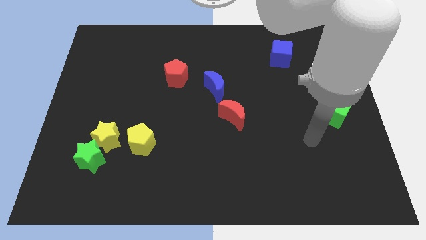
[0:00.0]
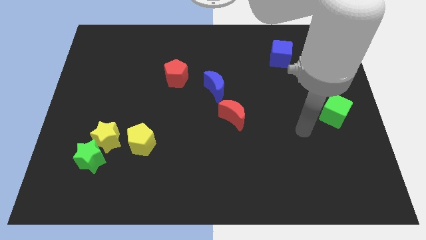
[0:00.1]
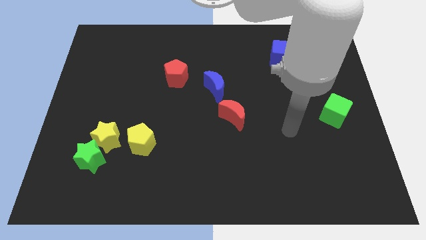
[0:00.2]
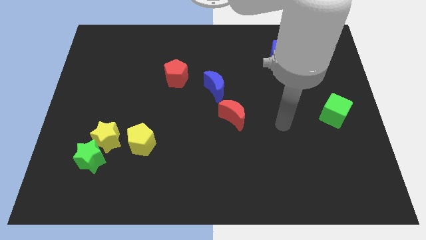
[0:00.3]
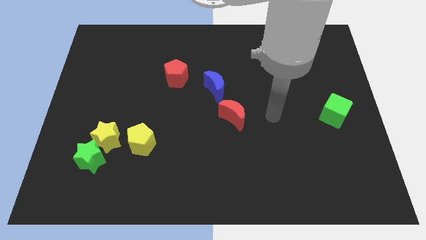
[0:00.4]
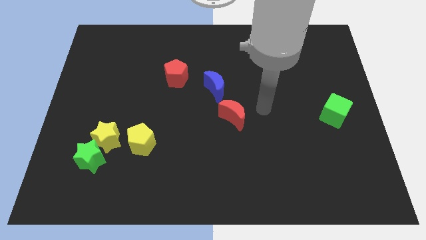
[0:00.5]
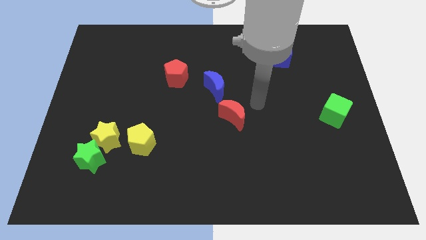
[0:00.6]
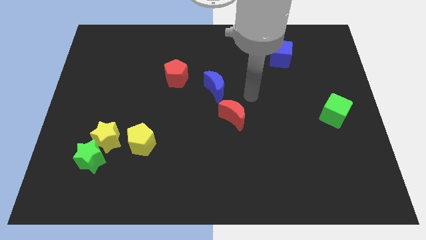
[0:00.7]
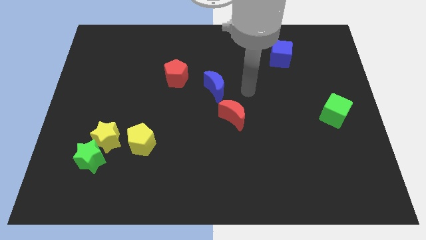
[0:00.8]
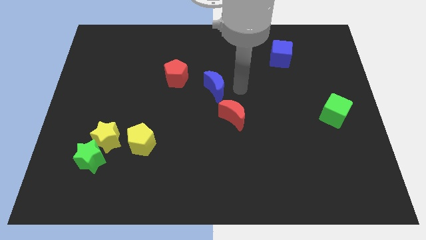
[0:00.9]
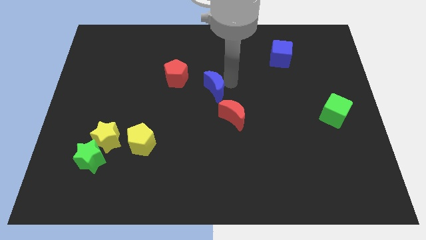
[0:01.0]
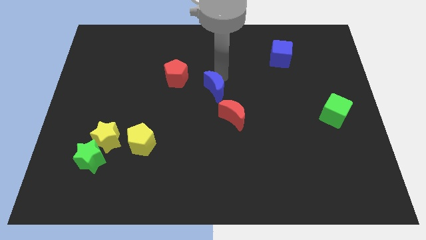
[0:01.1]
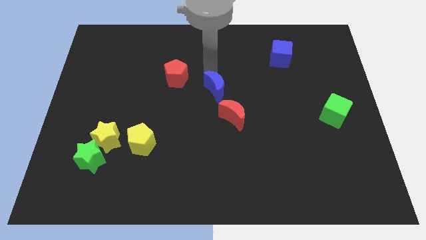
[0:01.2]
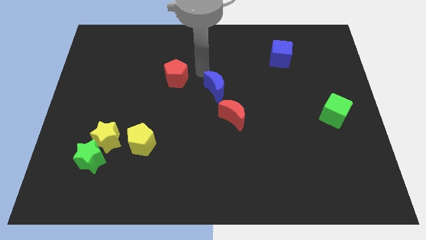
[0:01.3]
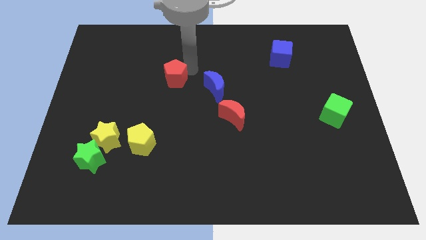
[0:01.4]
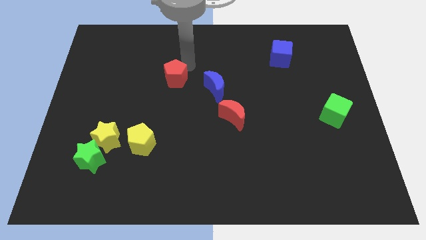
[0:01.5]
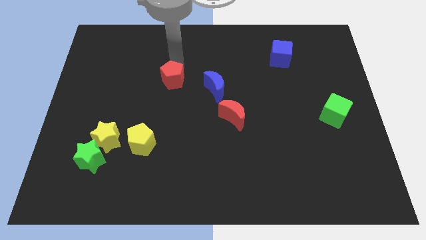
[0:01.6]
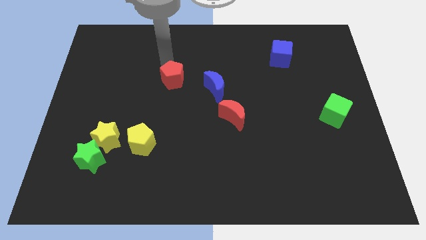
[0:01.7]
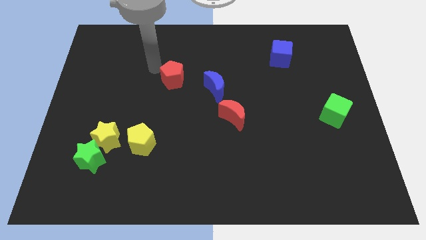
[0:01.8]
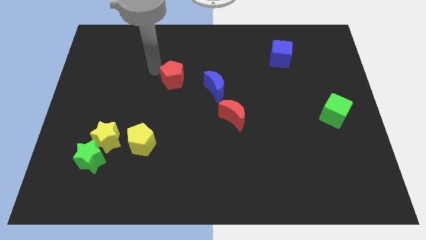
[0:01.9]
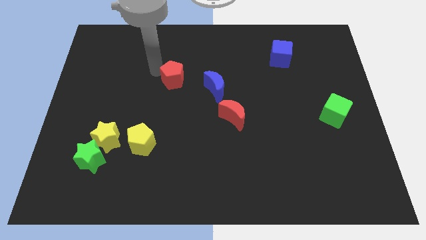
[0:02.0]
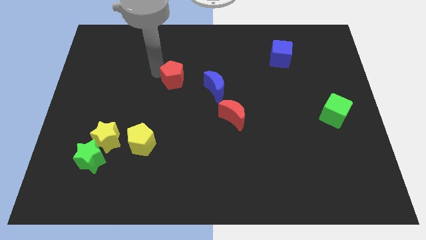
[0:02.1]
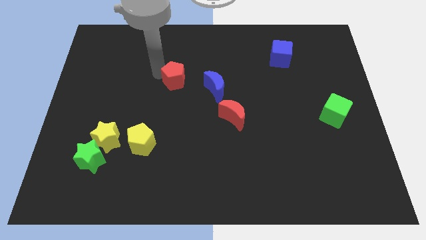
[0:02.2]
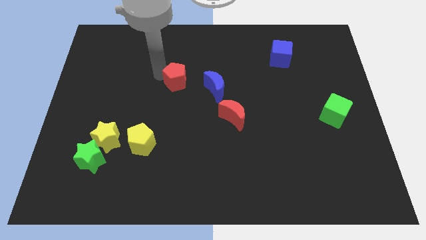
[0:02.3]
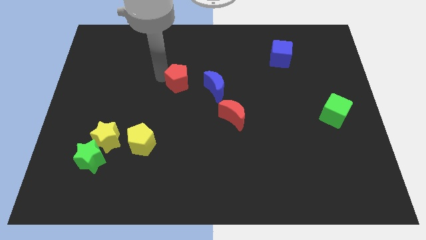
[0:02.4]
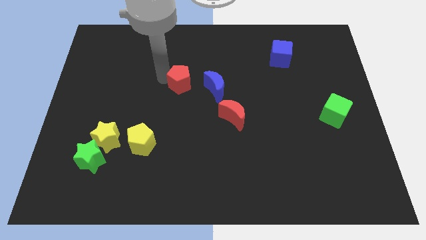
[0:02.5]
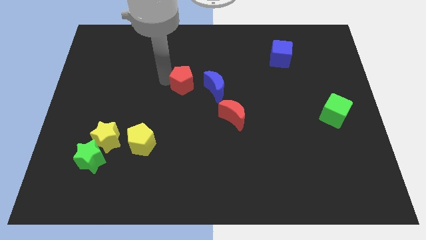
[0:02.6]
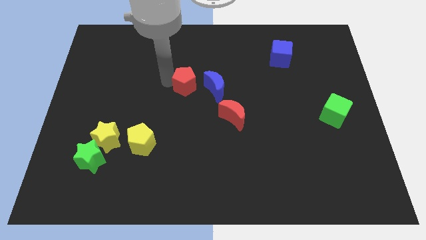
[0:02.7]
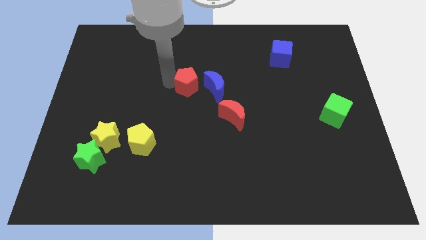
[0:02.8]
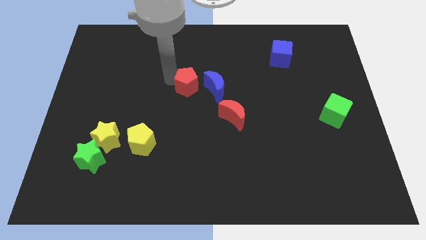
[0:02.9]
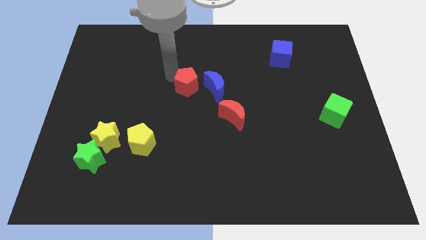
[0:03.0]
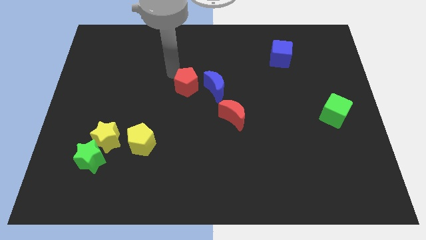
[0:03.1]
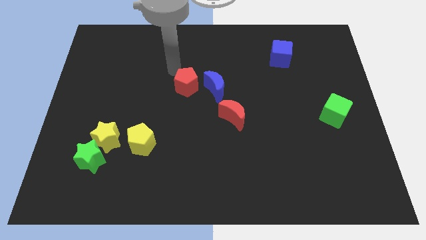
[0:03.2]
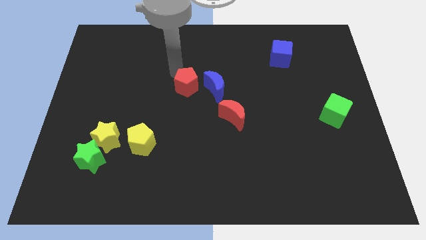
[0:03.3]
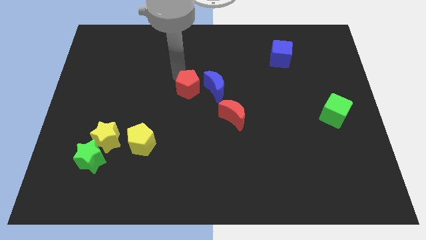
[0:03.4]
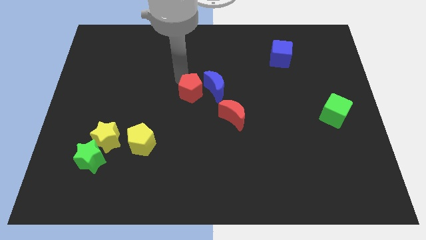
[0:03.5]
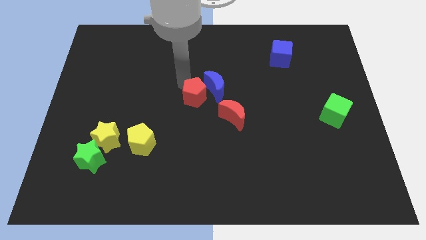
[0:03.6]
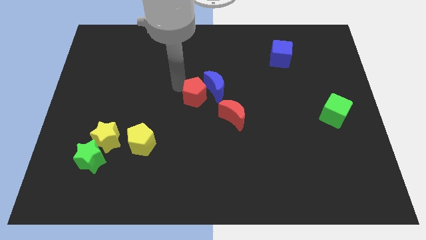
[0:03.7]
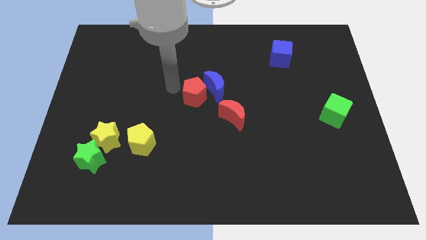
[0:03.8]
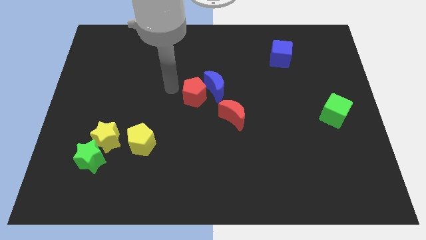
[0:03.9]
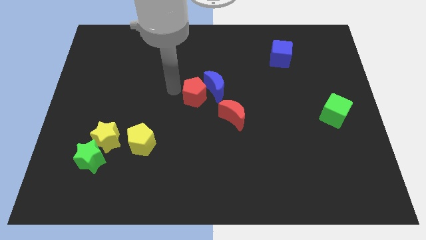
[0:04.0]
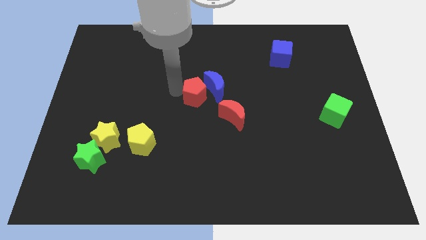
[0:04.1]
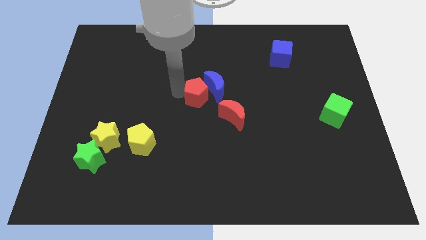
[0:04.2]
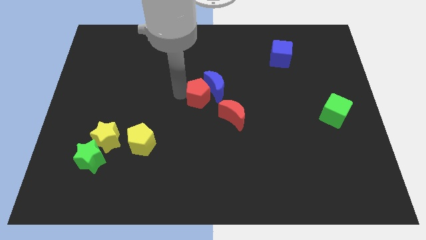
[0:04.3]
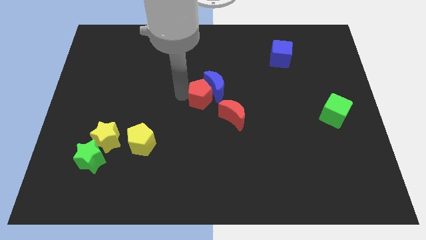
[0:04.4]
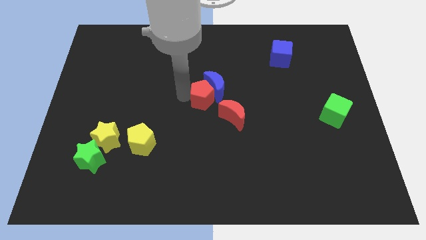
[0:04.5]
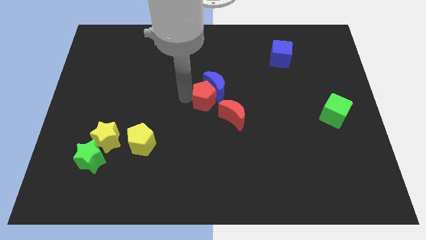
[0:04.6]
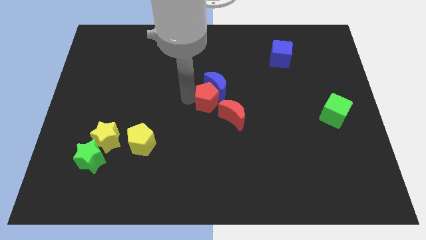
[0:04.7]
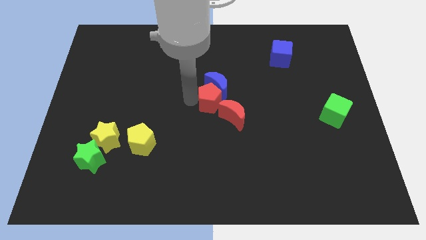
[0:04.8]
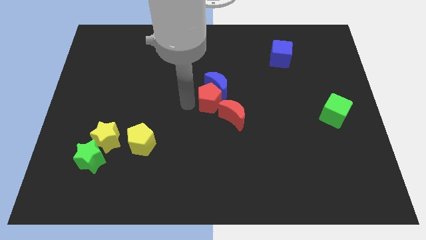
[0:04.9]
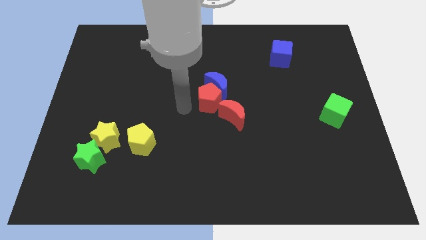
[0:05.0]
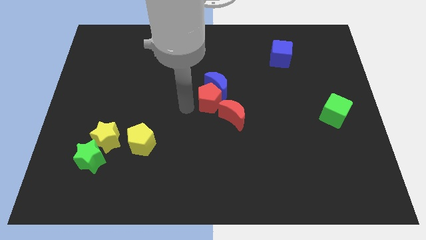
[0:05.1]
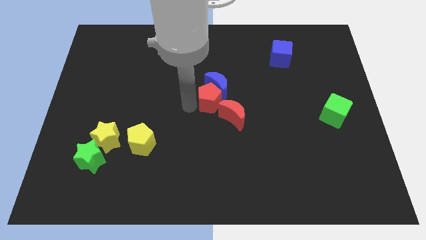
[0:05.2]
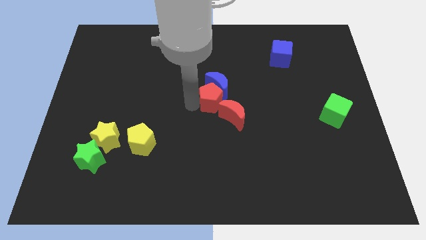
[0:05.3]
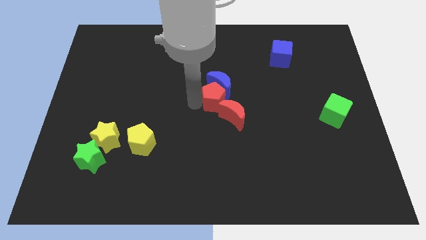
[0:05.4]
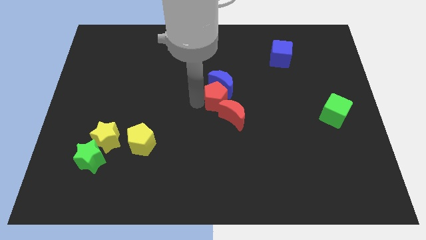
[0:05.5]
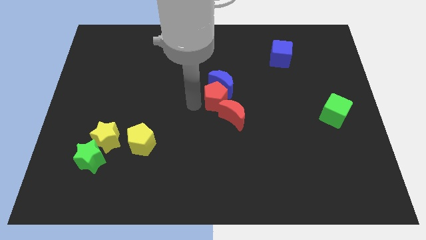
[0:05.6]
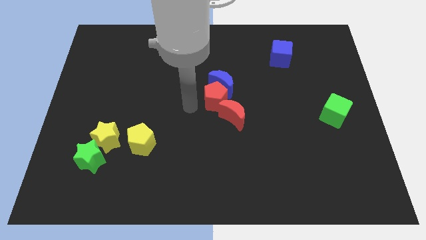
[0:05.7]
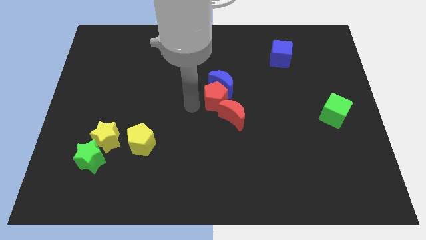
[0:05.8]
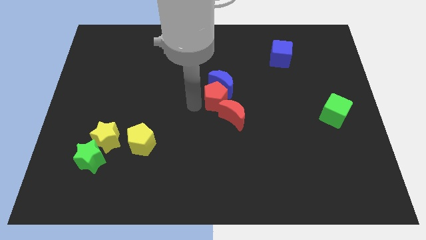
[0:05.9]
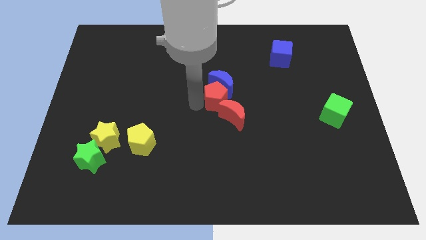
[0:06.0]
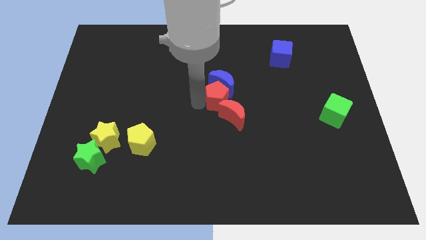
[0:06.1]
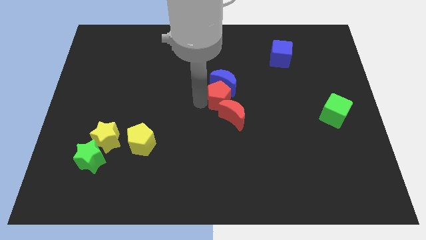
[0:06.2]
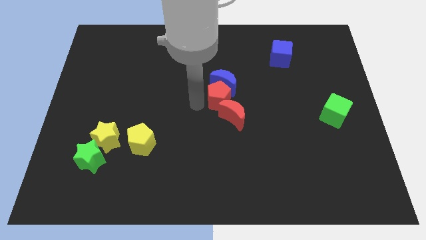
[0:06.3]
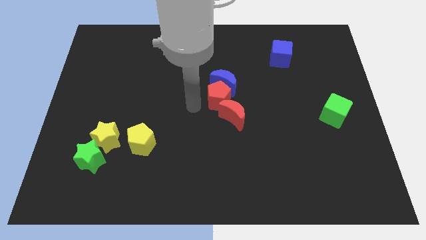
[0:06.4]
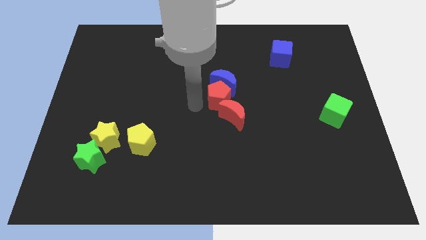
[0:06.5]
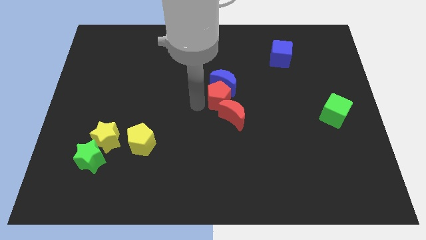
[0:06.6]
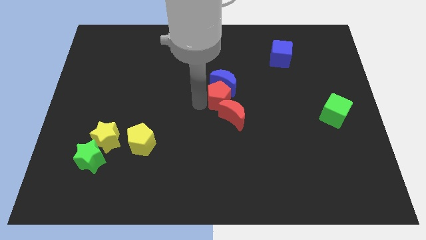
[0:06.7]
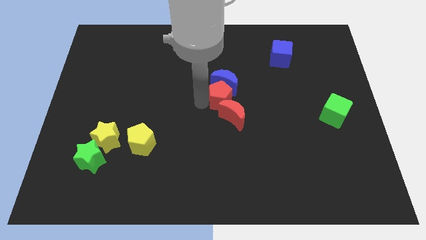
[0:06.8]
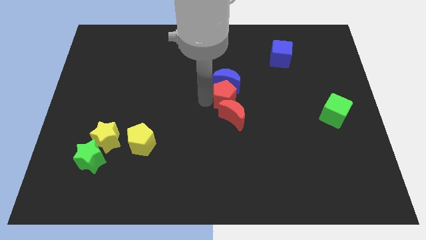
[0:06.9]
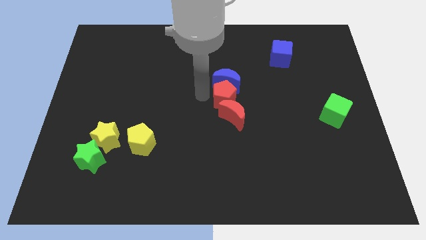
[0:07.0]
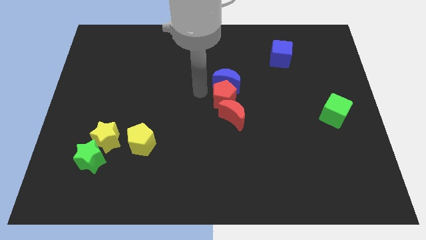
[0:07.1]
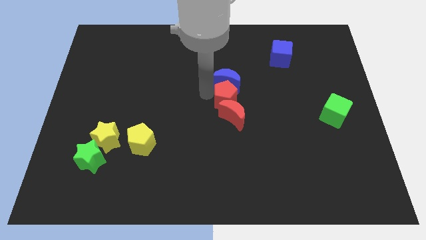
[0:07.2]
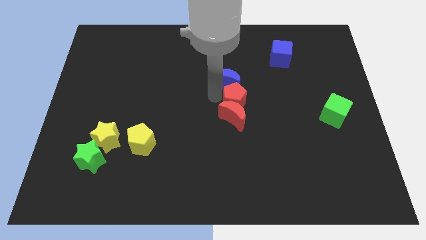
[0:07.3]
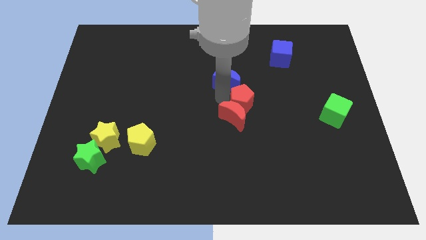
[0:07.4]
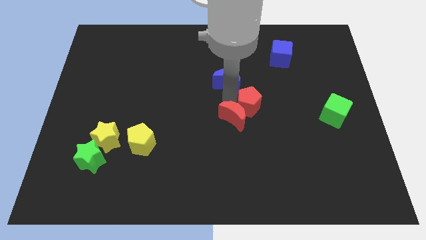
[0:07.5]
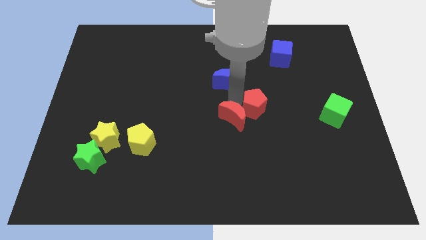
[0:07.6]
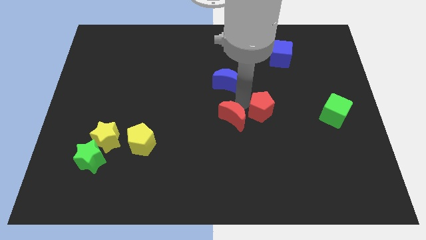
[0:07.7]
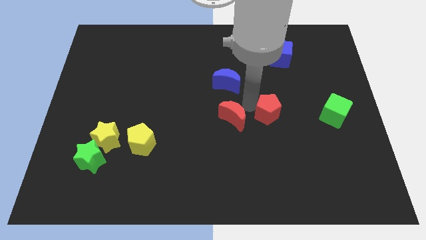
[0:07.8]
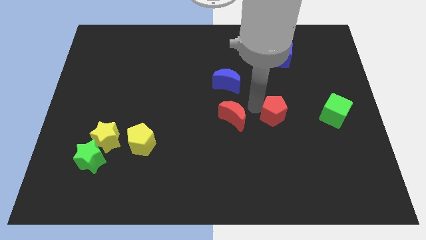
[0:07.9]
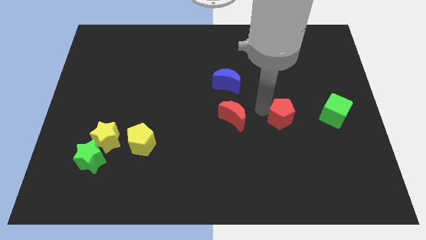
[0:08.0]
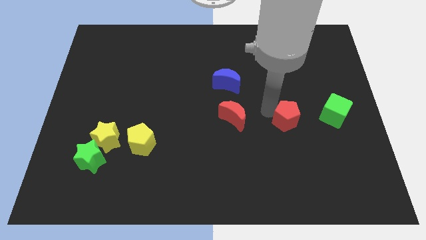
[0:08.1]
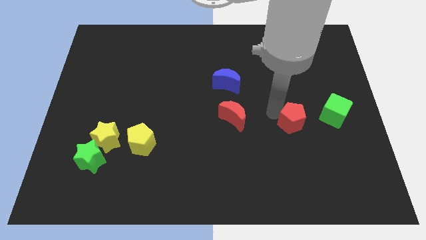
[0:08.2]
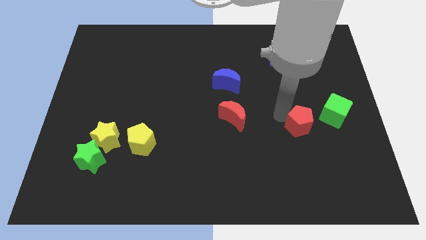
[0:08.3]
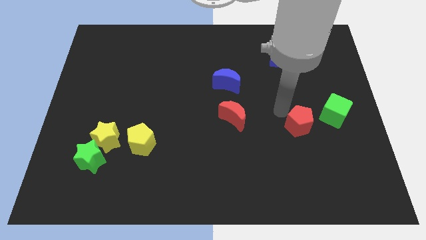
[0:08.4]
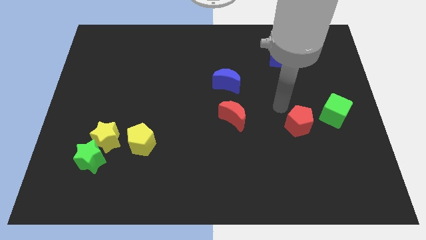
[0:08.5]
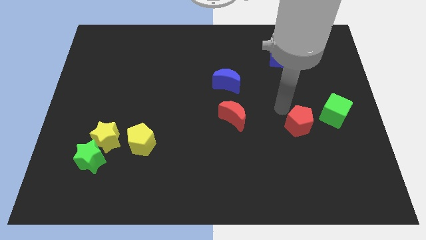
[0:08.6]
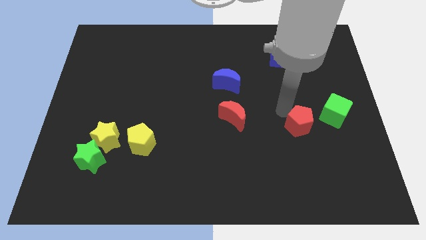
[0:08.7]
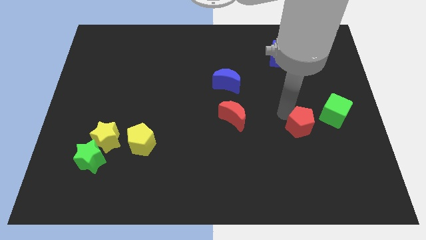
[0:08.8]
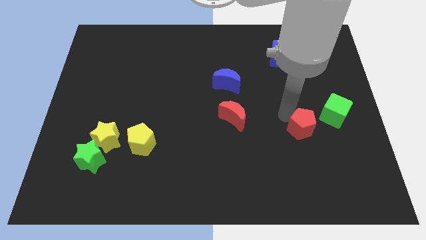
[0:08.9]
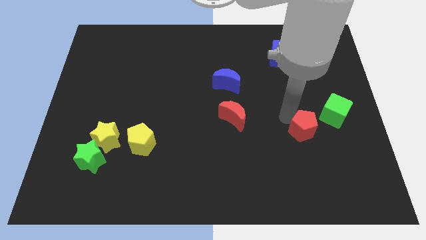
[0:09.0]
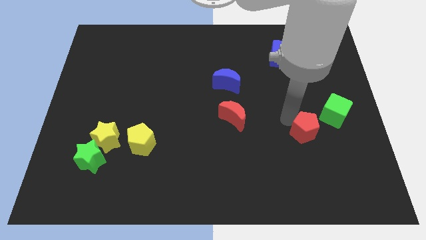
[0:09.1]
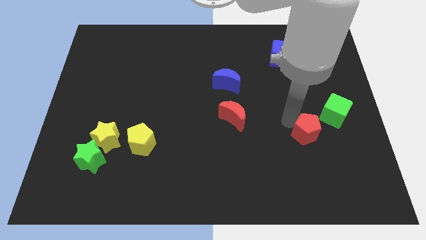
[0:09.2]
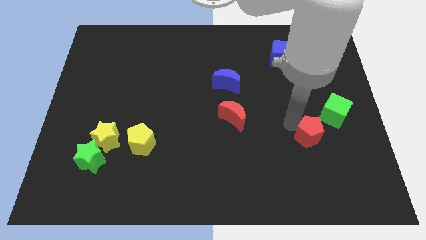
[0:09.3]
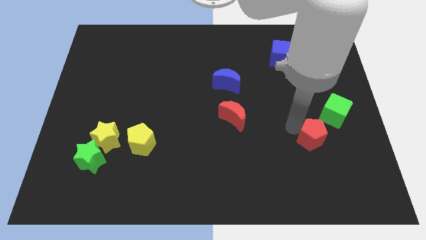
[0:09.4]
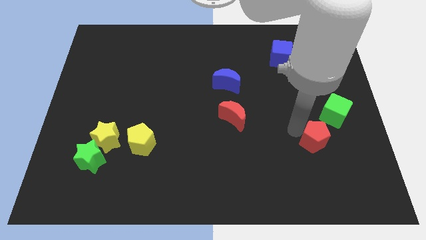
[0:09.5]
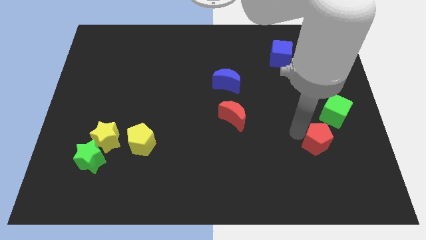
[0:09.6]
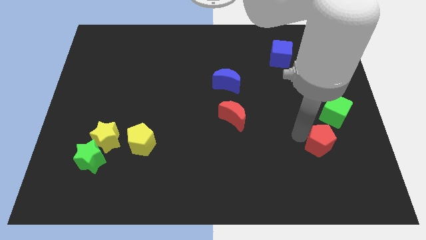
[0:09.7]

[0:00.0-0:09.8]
push the red pentagon below the green cube
